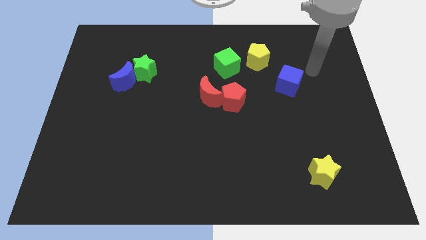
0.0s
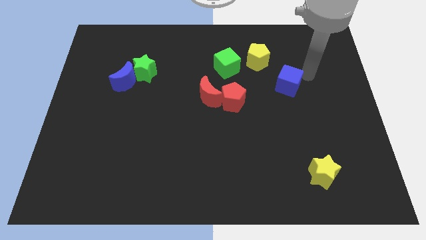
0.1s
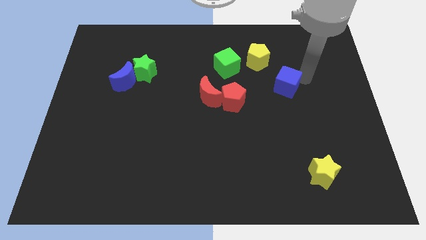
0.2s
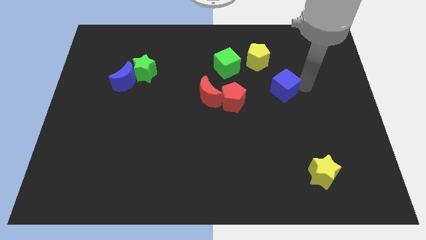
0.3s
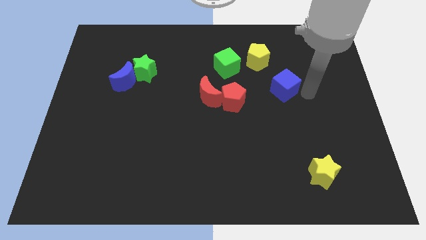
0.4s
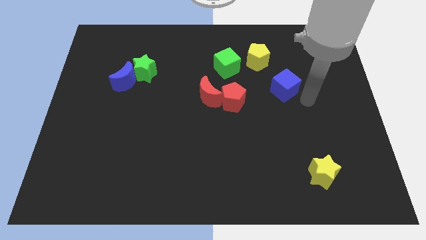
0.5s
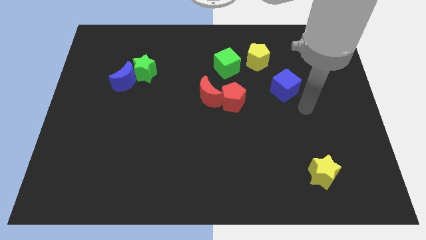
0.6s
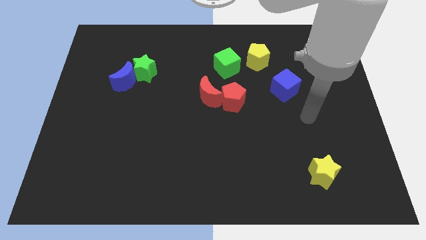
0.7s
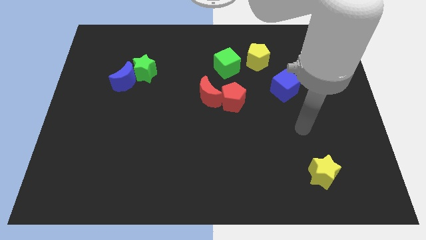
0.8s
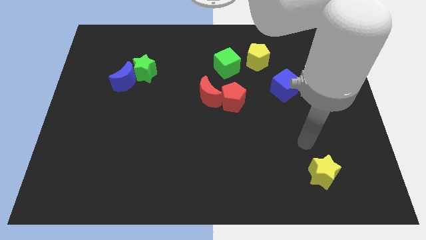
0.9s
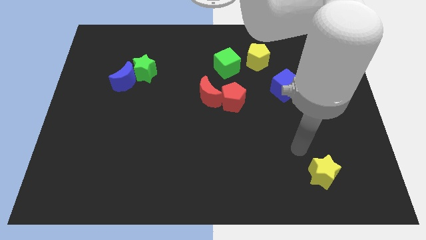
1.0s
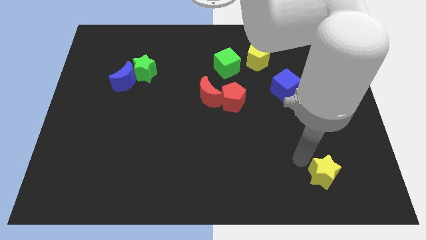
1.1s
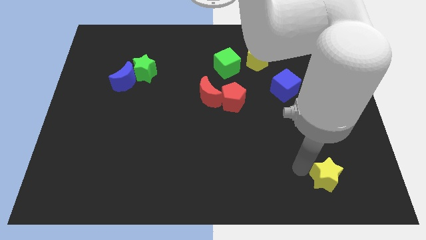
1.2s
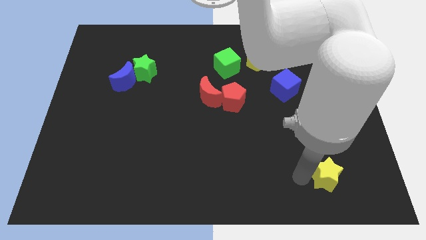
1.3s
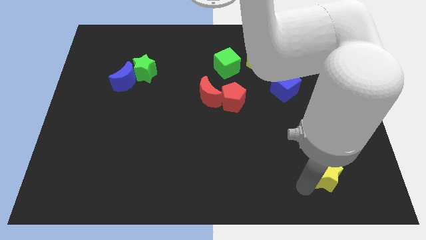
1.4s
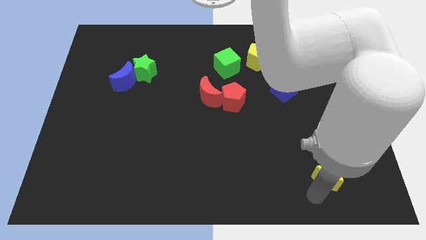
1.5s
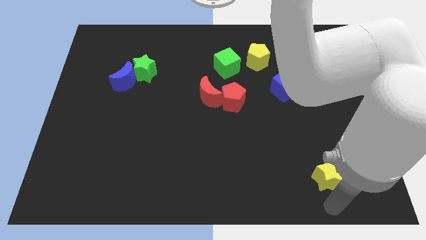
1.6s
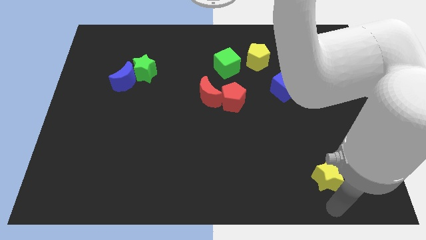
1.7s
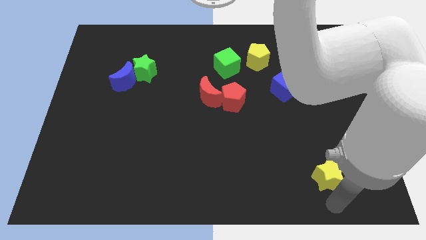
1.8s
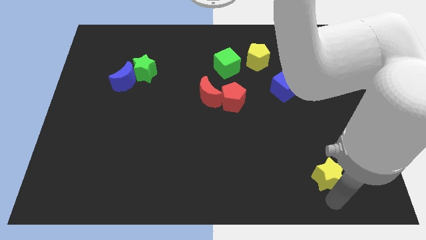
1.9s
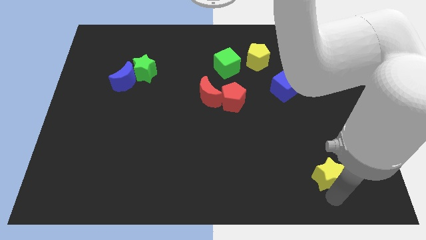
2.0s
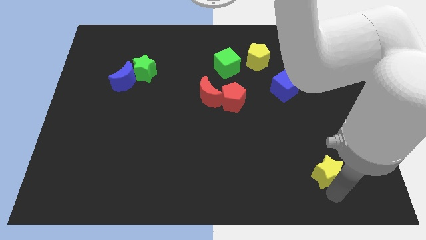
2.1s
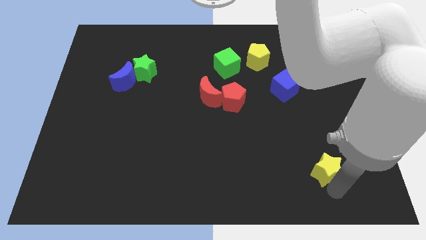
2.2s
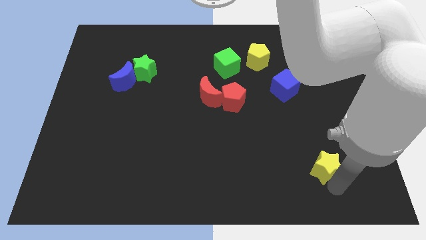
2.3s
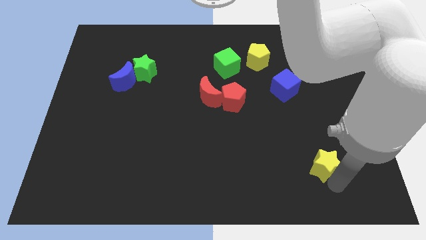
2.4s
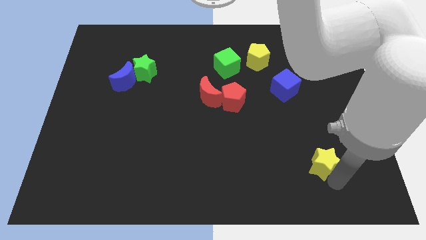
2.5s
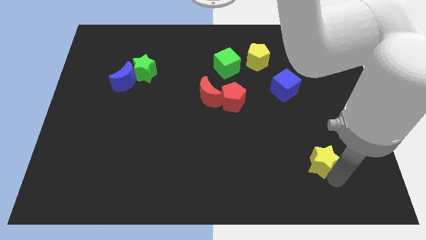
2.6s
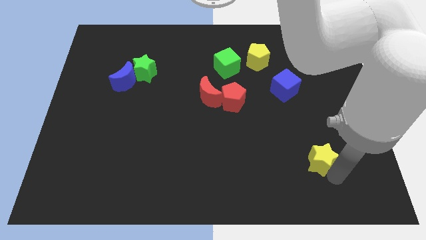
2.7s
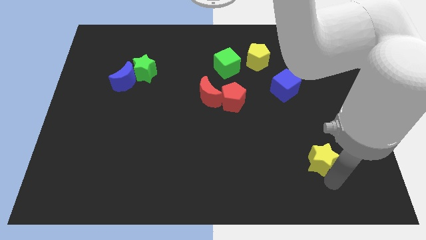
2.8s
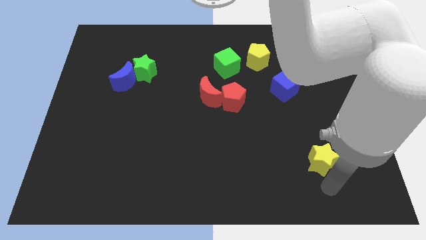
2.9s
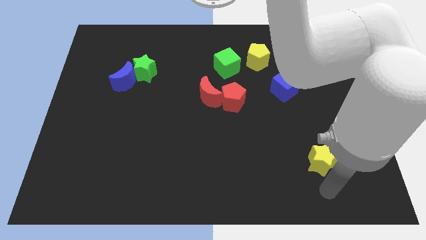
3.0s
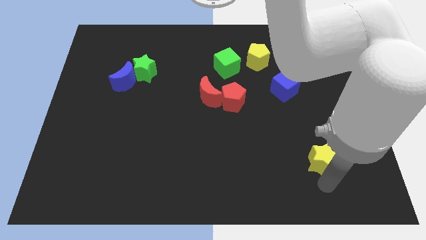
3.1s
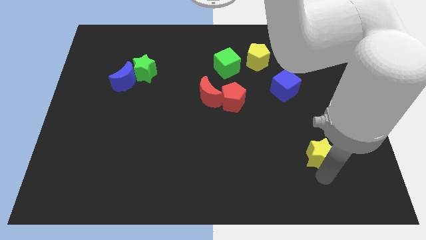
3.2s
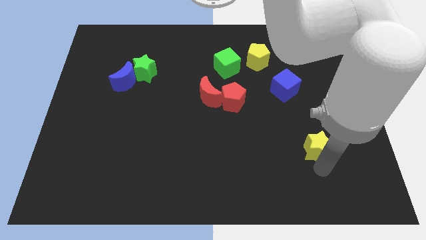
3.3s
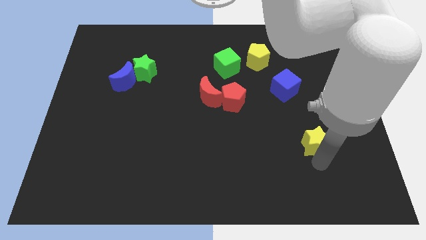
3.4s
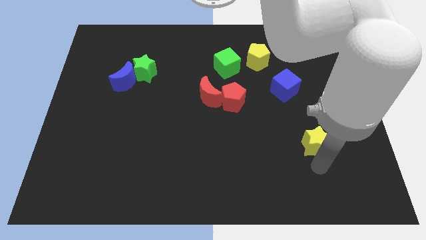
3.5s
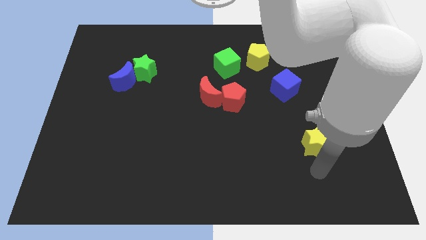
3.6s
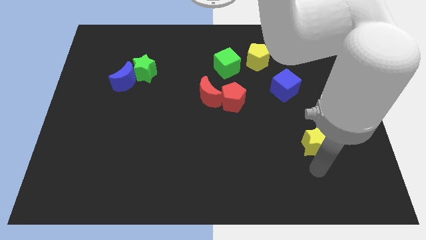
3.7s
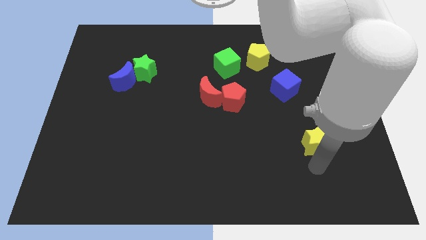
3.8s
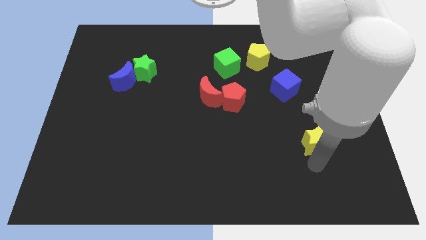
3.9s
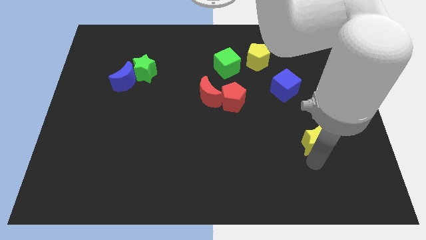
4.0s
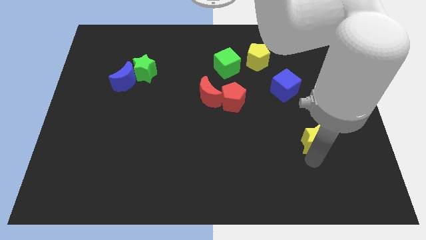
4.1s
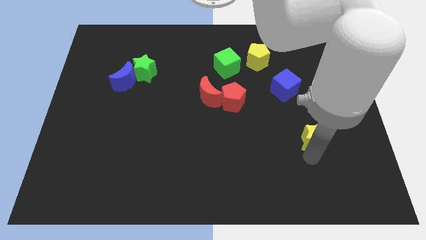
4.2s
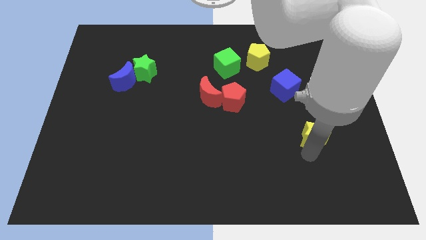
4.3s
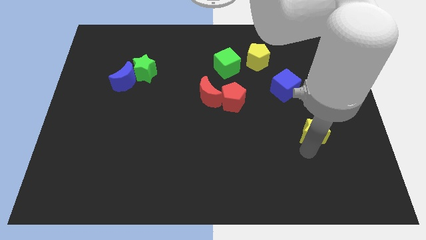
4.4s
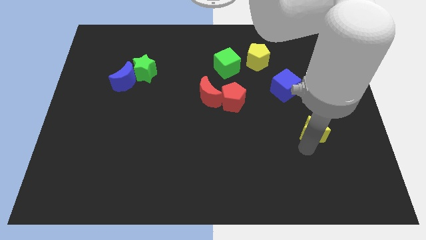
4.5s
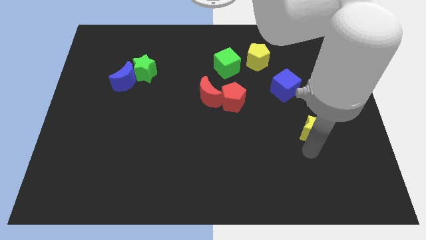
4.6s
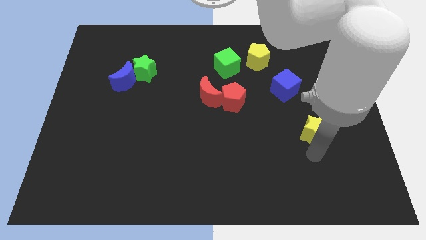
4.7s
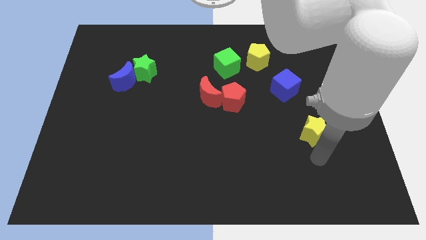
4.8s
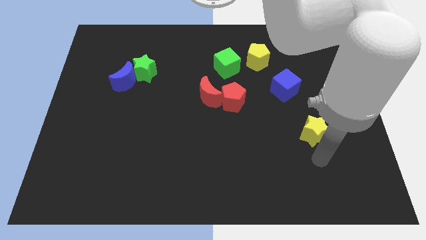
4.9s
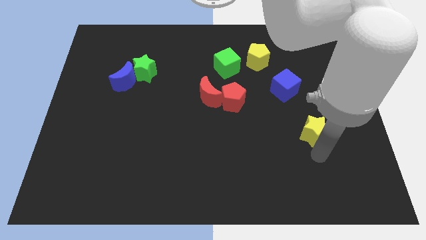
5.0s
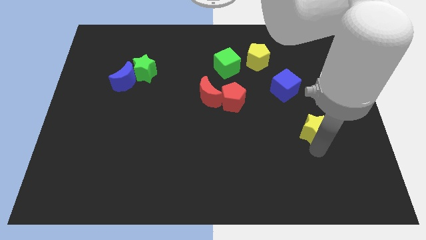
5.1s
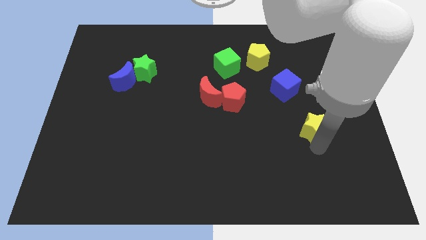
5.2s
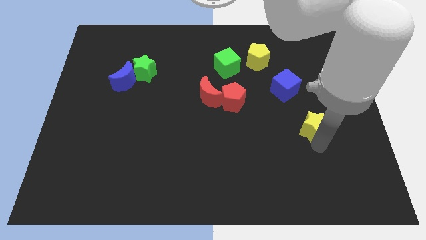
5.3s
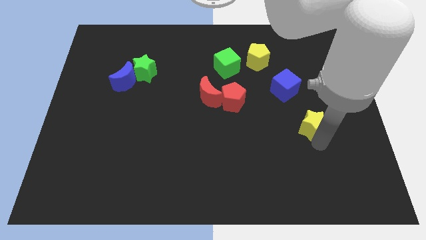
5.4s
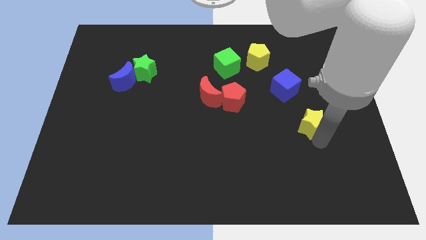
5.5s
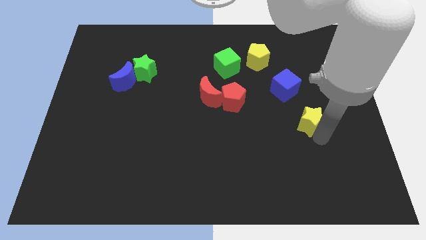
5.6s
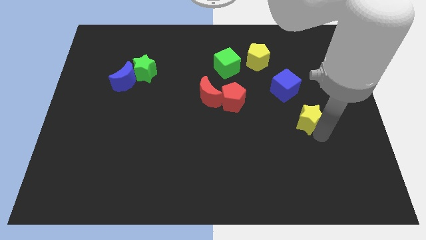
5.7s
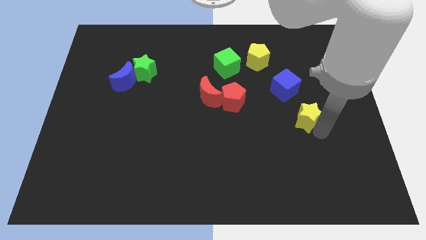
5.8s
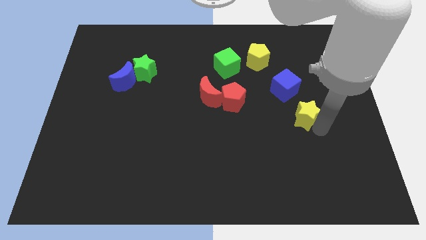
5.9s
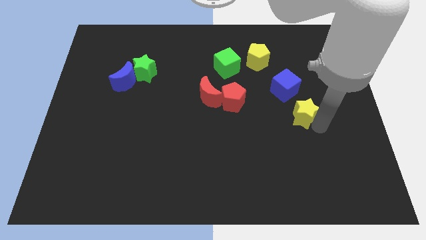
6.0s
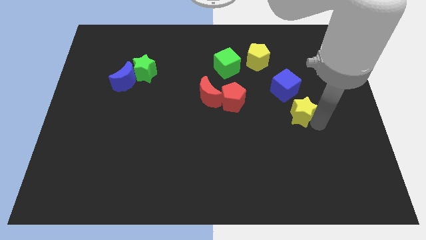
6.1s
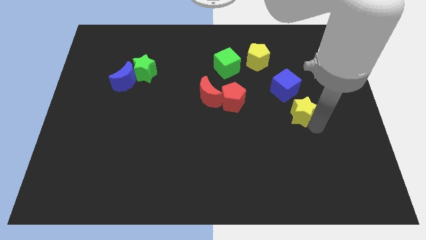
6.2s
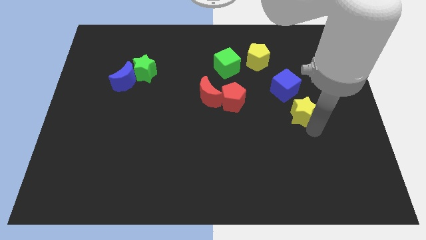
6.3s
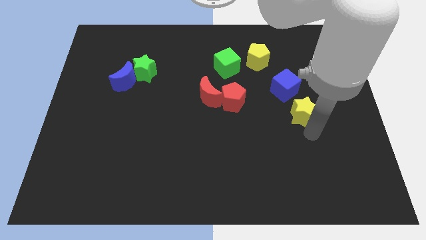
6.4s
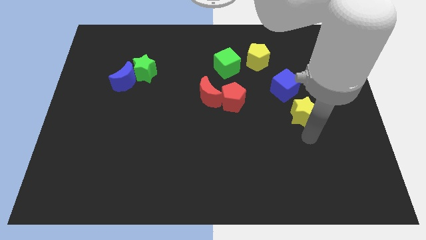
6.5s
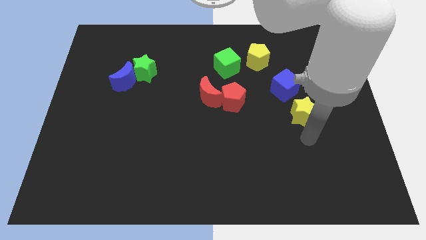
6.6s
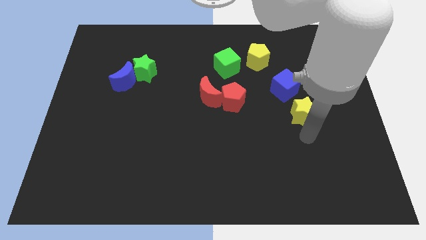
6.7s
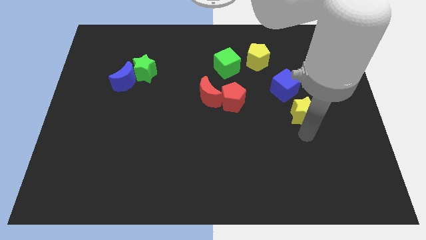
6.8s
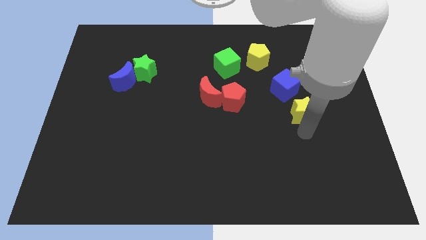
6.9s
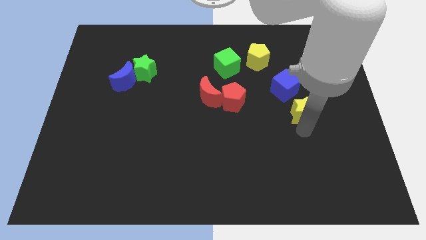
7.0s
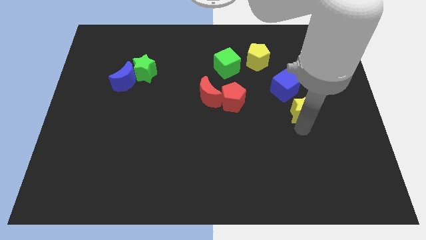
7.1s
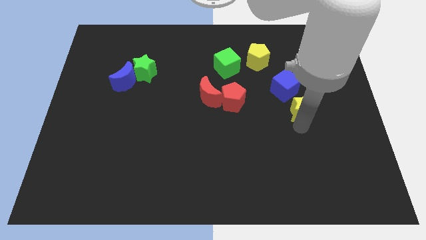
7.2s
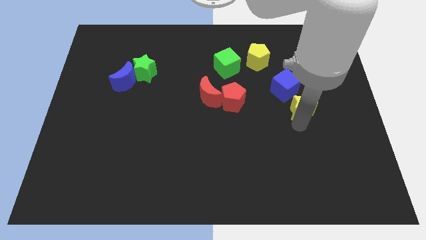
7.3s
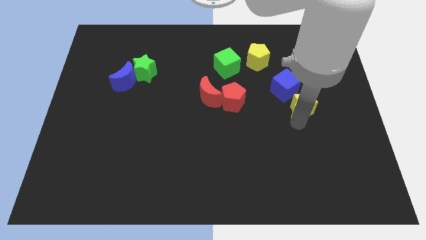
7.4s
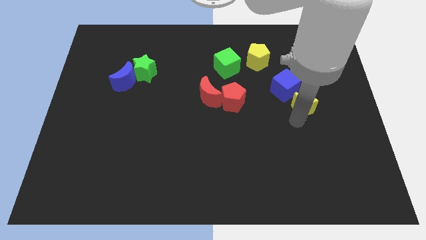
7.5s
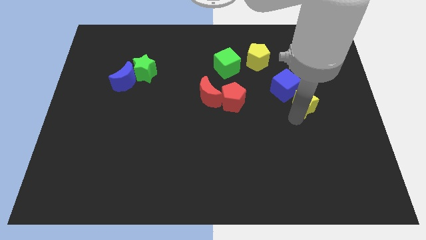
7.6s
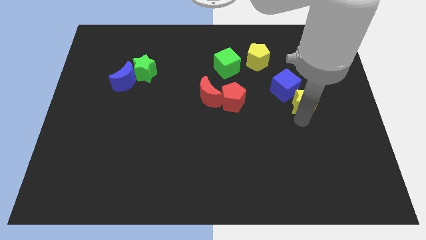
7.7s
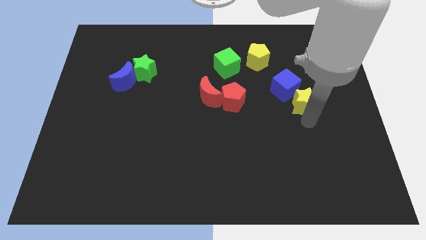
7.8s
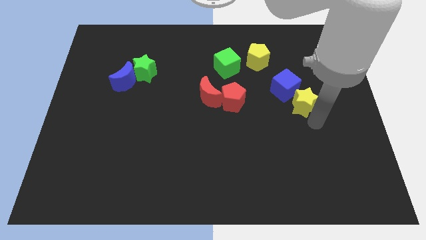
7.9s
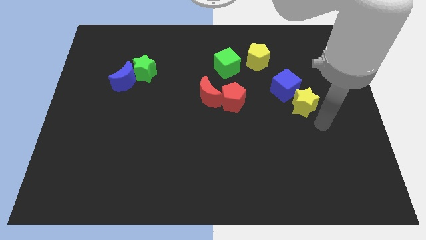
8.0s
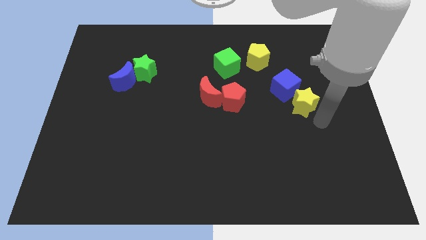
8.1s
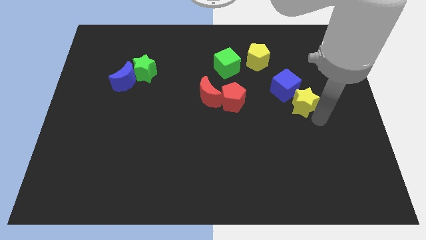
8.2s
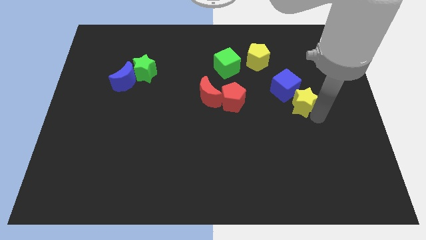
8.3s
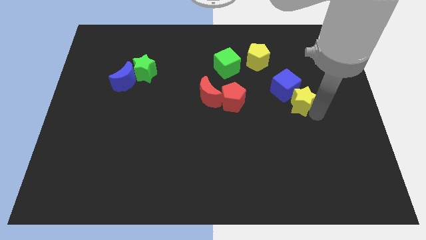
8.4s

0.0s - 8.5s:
move the yellow star close to the blue cube
